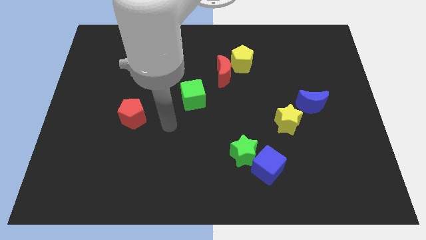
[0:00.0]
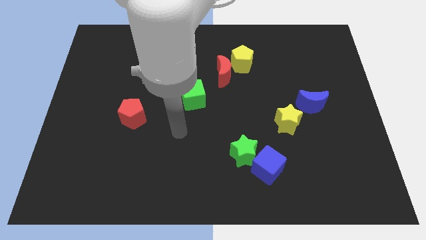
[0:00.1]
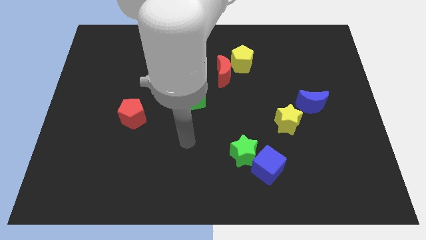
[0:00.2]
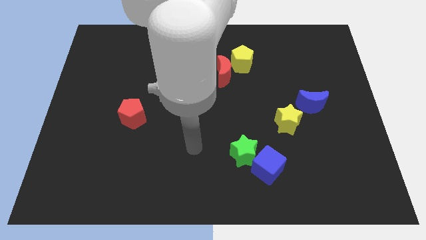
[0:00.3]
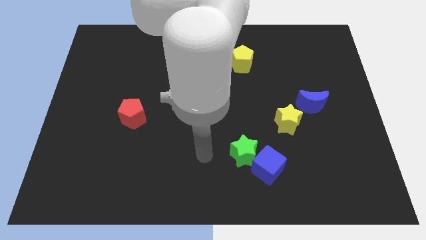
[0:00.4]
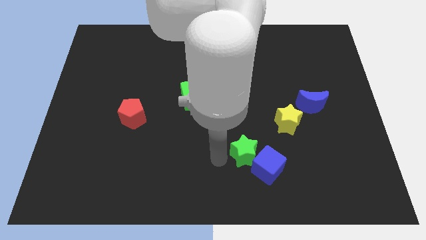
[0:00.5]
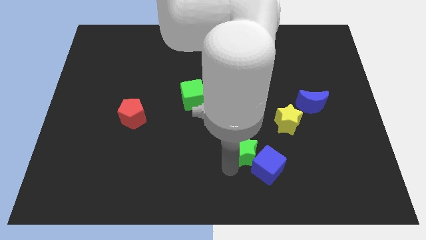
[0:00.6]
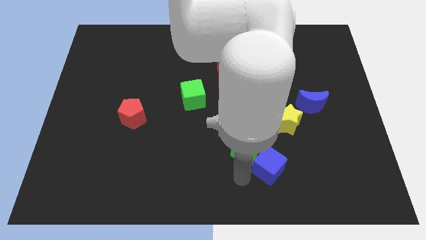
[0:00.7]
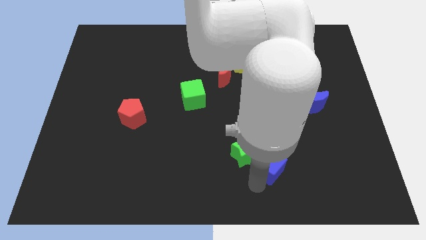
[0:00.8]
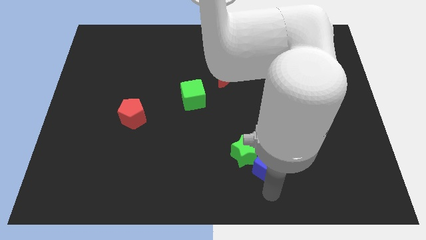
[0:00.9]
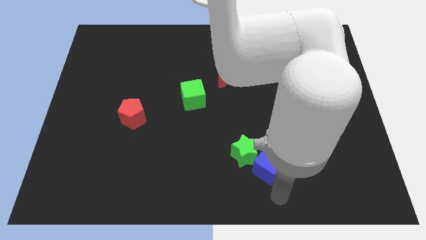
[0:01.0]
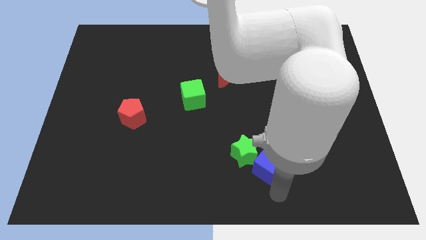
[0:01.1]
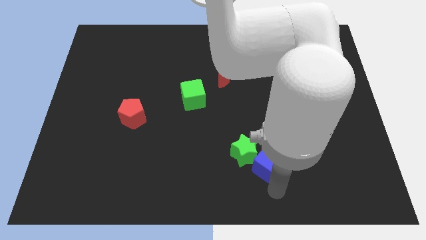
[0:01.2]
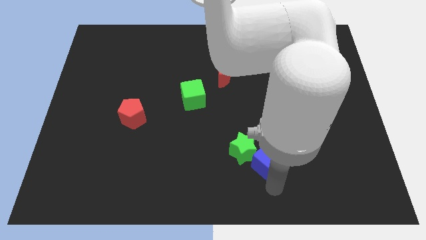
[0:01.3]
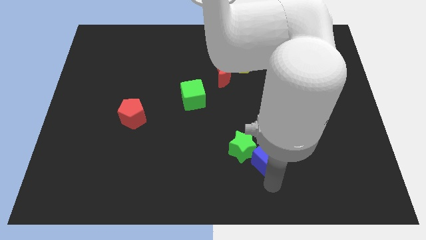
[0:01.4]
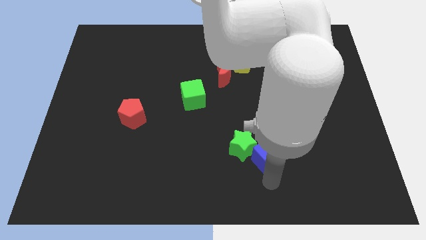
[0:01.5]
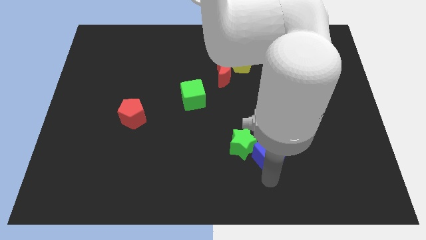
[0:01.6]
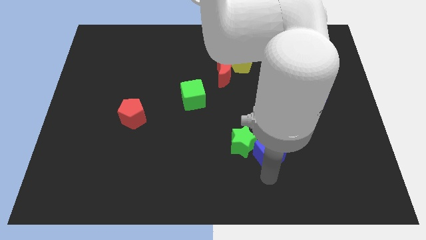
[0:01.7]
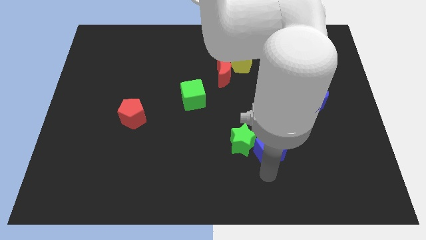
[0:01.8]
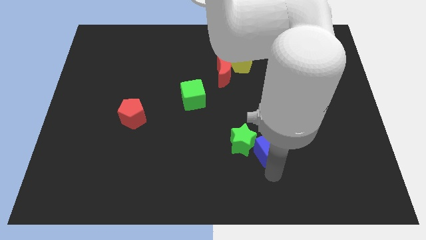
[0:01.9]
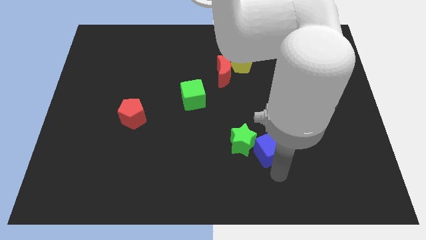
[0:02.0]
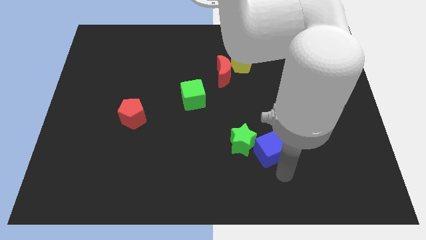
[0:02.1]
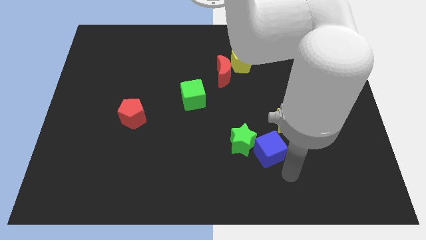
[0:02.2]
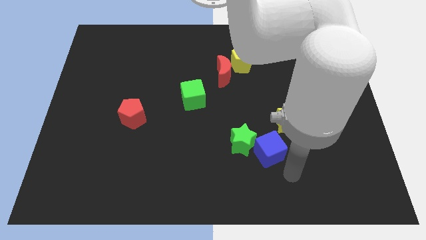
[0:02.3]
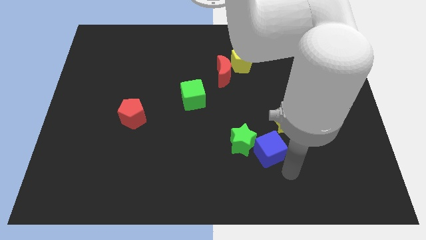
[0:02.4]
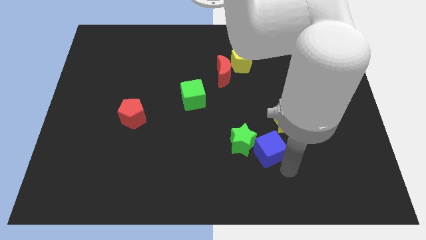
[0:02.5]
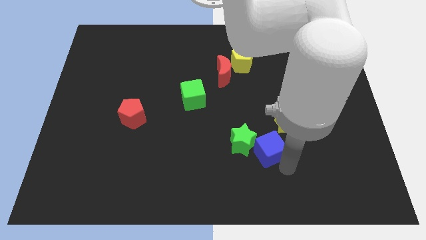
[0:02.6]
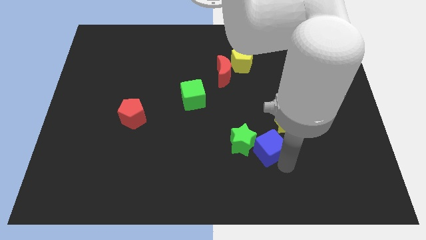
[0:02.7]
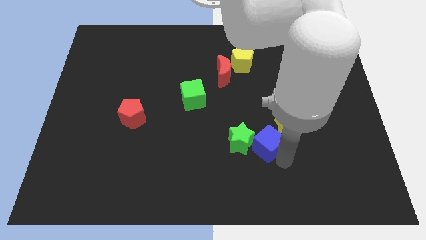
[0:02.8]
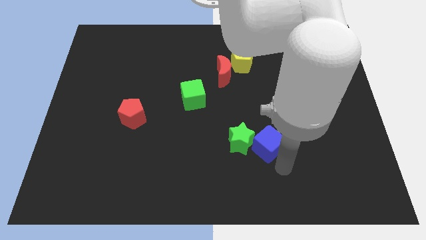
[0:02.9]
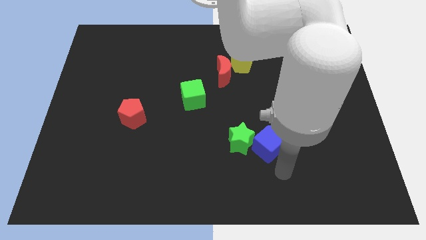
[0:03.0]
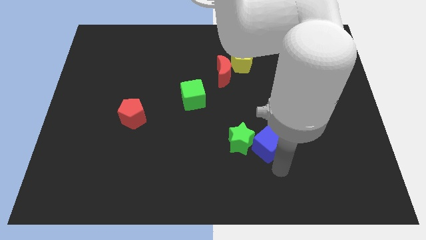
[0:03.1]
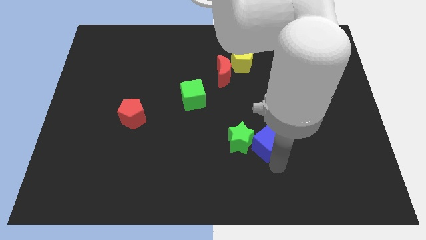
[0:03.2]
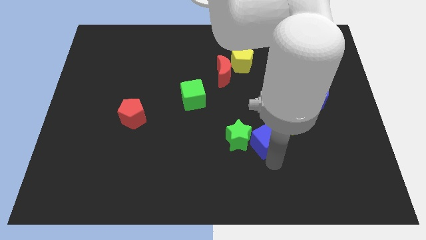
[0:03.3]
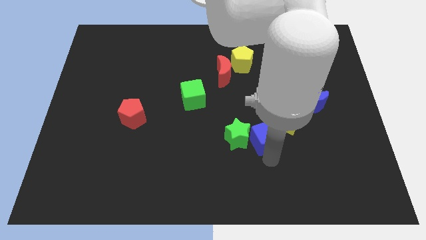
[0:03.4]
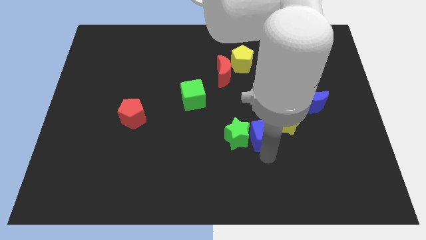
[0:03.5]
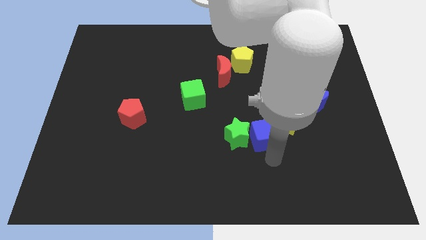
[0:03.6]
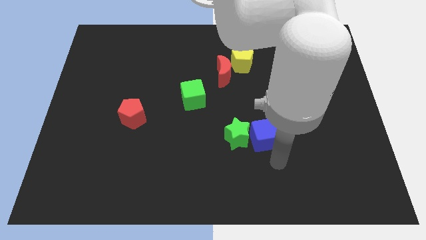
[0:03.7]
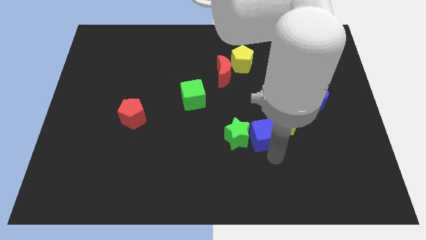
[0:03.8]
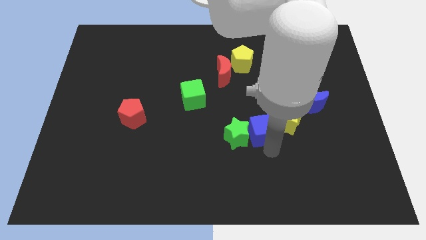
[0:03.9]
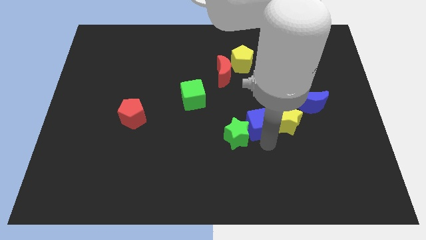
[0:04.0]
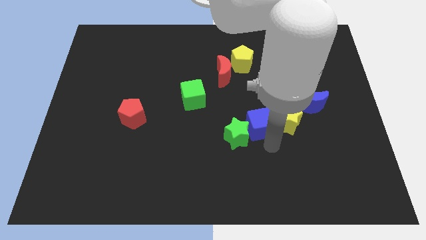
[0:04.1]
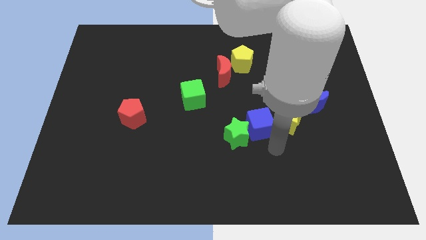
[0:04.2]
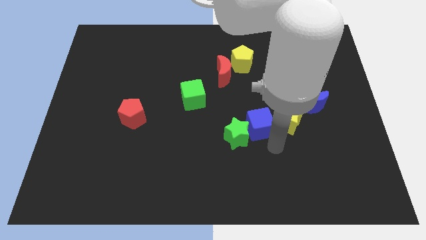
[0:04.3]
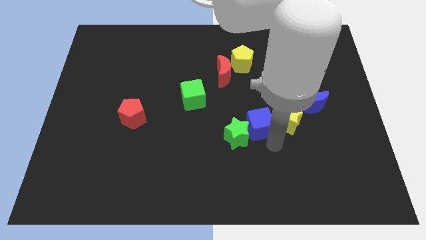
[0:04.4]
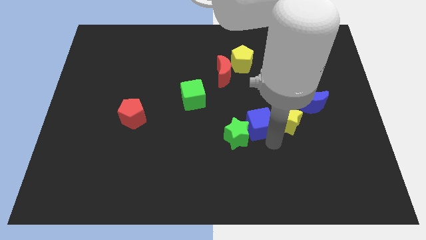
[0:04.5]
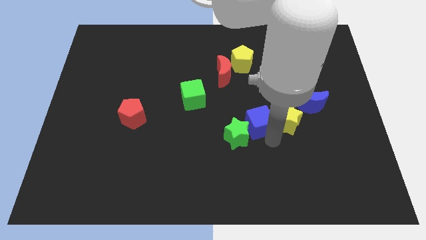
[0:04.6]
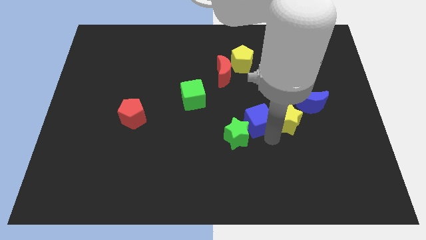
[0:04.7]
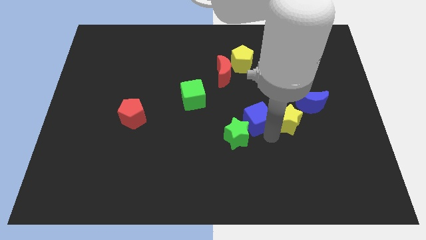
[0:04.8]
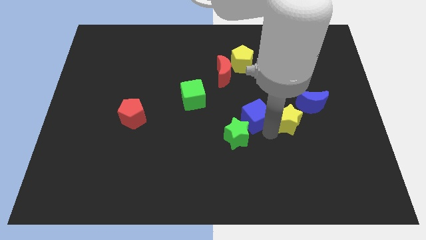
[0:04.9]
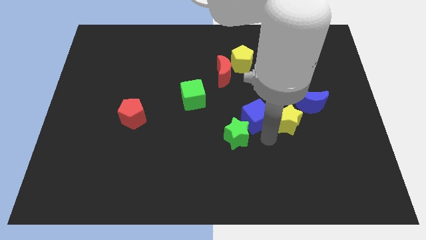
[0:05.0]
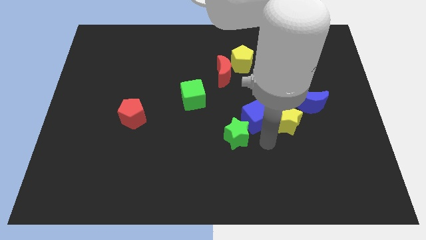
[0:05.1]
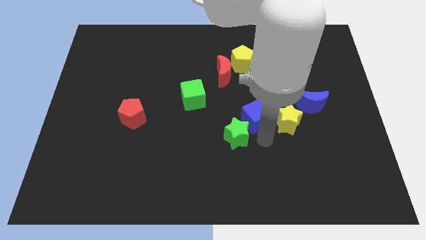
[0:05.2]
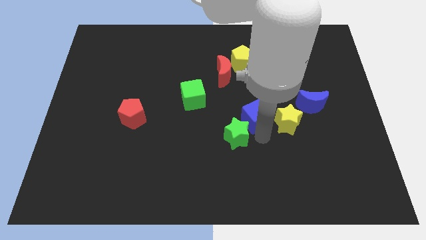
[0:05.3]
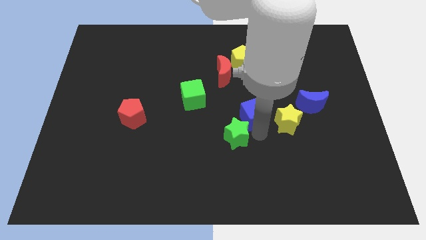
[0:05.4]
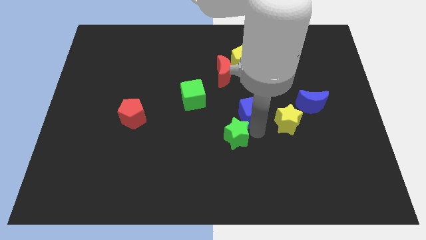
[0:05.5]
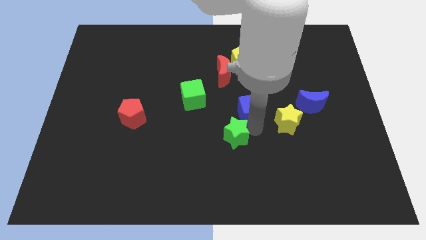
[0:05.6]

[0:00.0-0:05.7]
move the blue cube to the bottom of the yellow pentagon

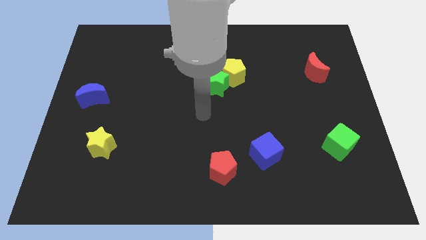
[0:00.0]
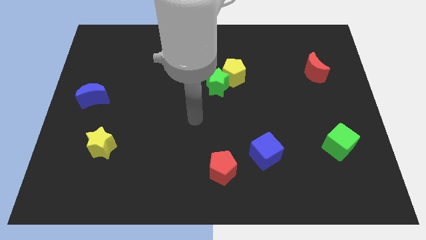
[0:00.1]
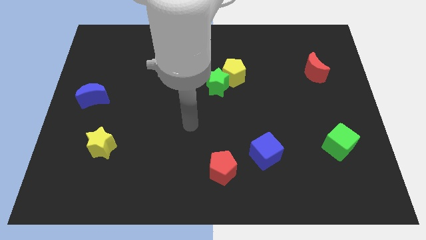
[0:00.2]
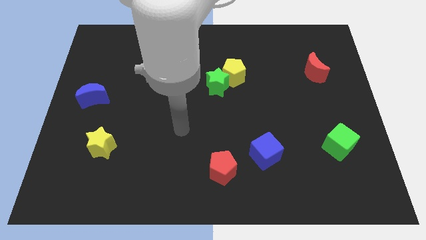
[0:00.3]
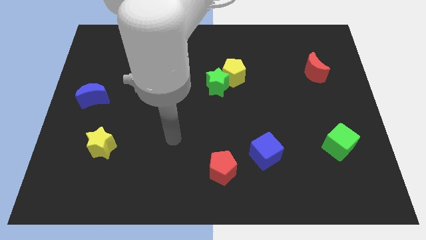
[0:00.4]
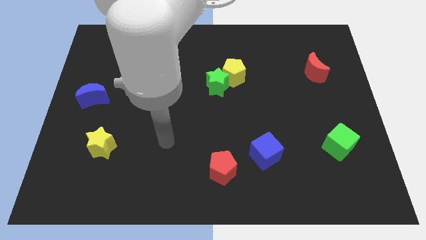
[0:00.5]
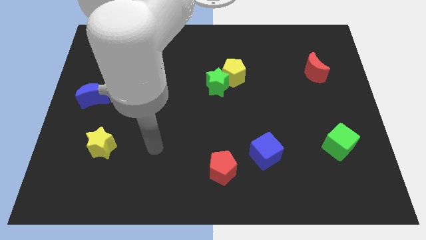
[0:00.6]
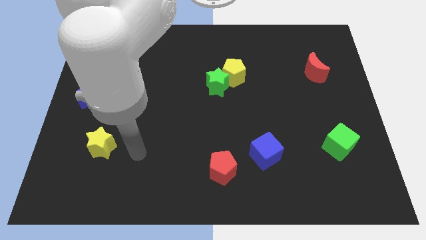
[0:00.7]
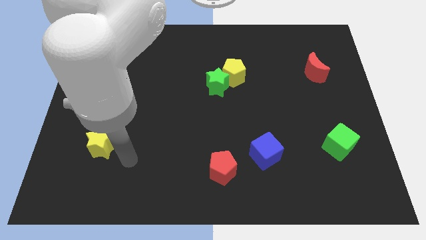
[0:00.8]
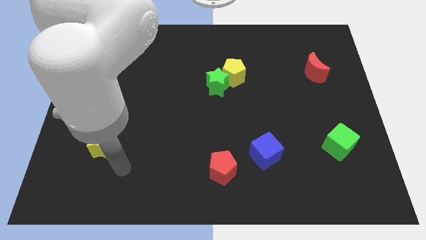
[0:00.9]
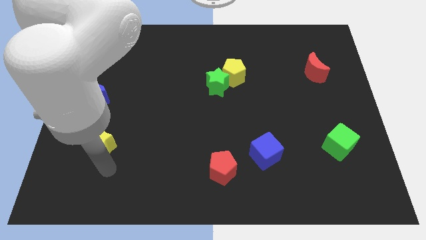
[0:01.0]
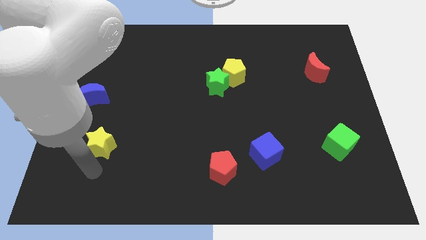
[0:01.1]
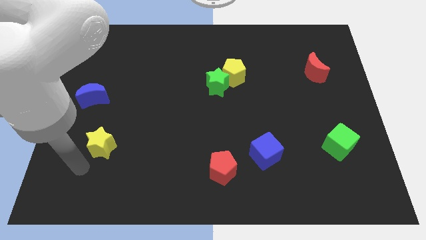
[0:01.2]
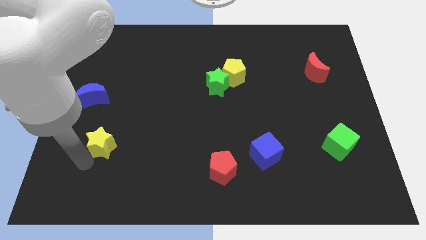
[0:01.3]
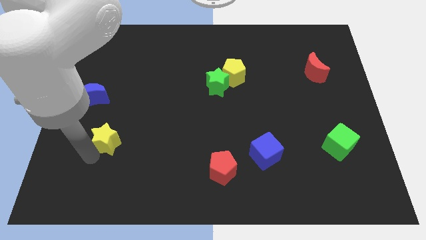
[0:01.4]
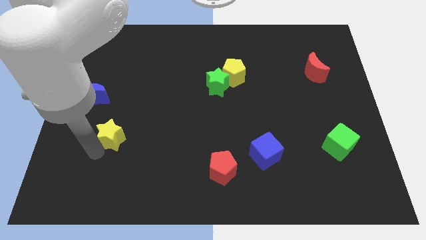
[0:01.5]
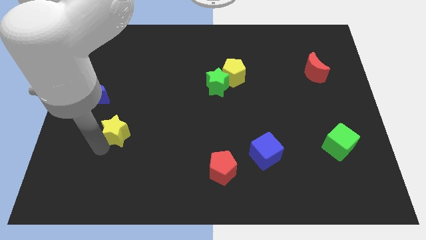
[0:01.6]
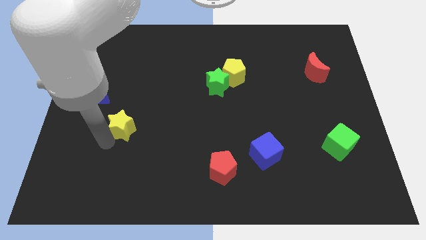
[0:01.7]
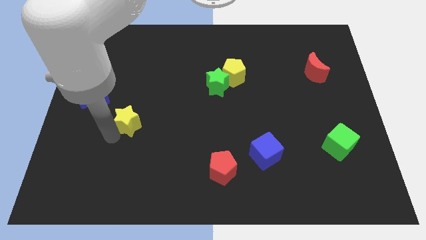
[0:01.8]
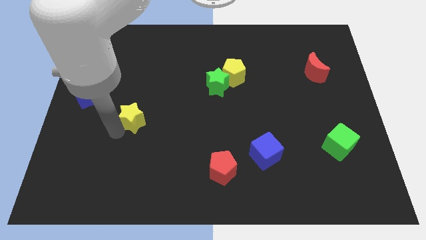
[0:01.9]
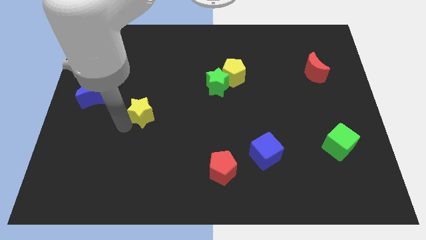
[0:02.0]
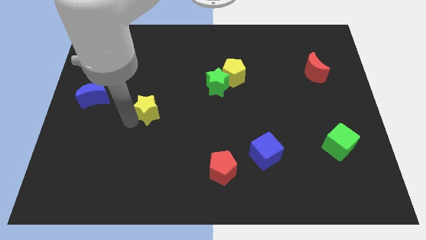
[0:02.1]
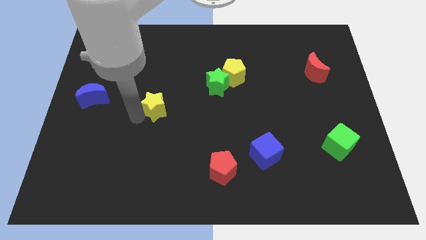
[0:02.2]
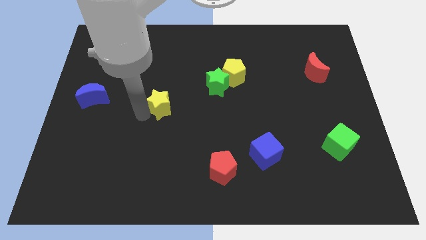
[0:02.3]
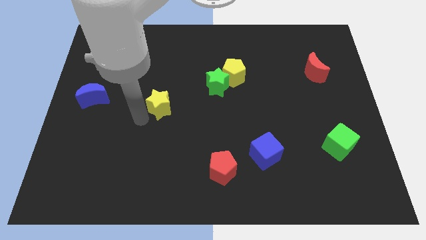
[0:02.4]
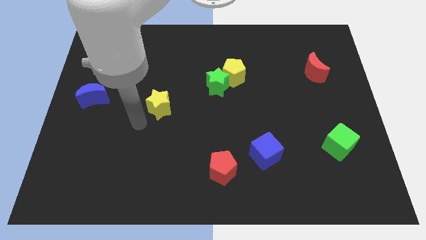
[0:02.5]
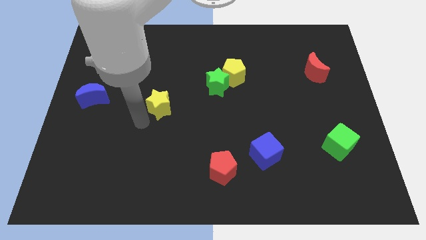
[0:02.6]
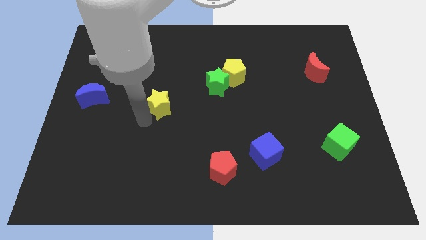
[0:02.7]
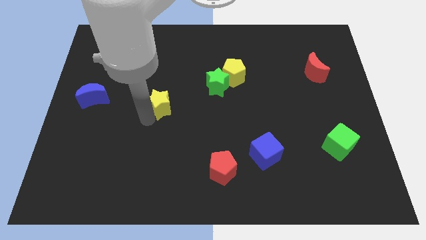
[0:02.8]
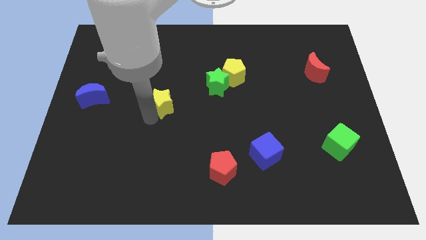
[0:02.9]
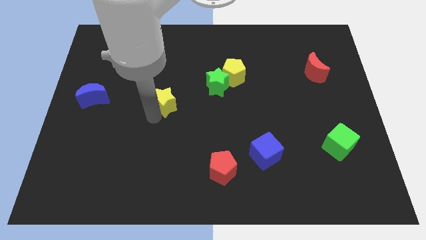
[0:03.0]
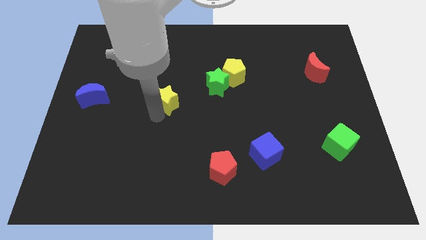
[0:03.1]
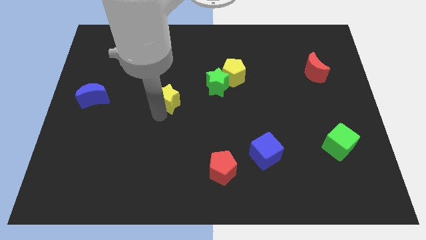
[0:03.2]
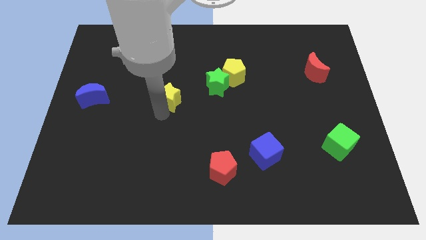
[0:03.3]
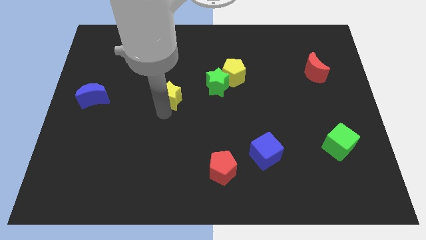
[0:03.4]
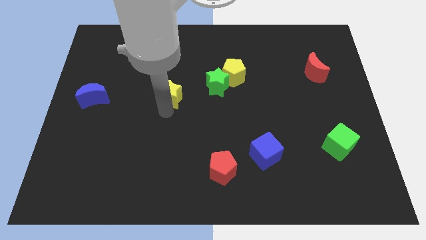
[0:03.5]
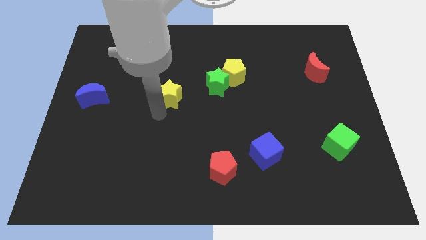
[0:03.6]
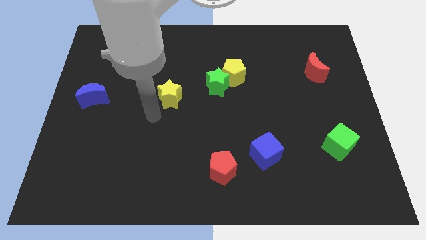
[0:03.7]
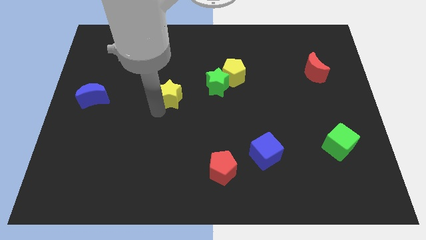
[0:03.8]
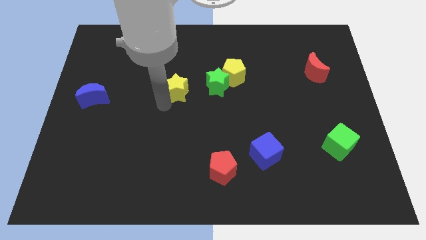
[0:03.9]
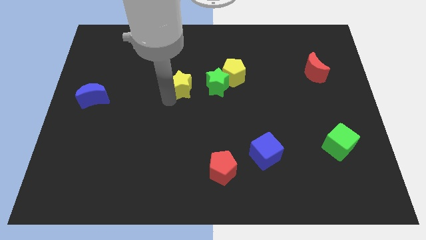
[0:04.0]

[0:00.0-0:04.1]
put the yellow star to the left of the yellow pentagon
